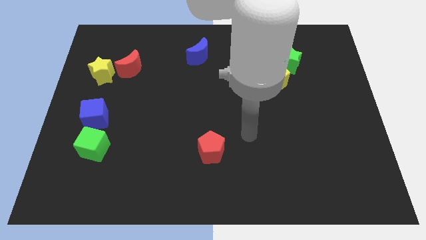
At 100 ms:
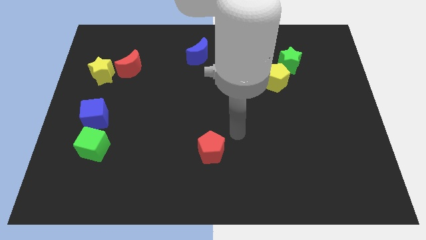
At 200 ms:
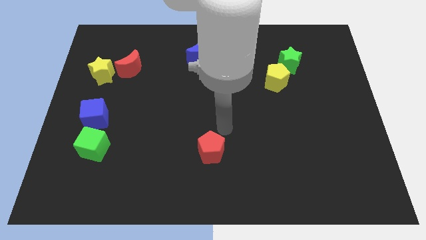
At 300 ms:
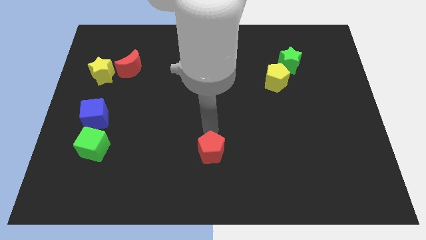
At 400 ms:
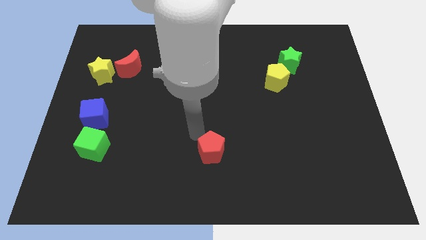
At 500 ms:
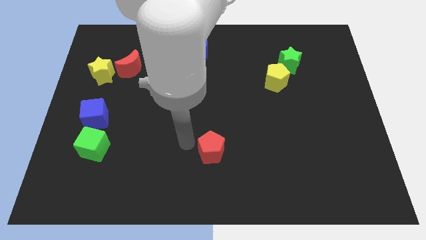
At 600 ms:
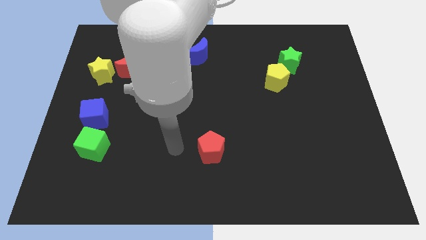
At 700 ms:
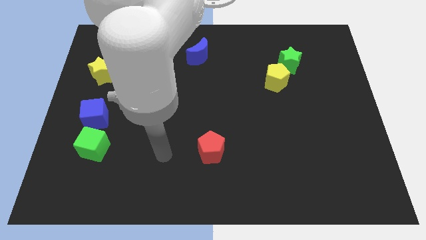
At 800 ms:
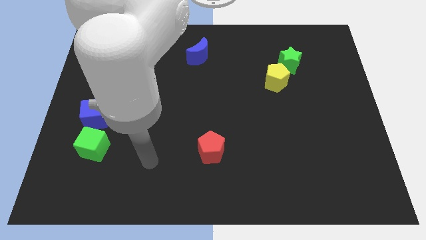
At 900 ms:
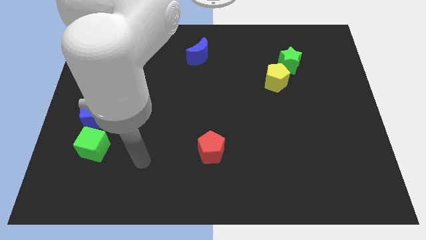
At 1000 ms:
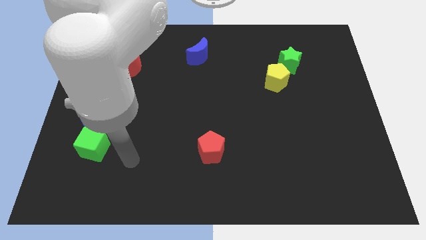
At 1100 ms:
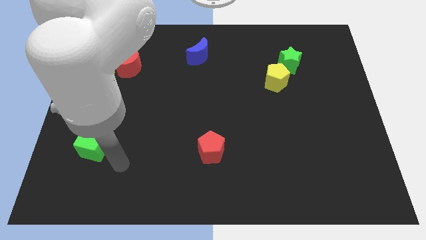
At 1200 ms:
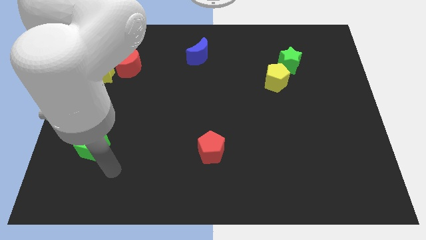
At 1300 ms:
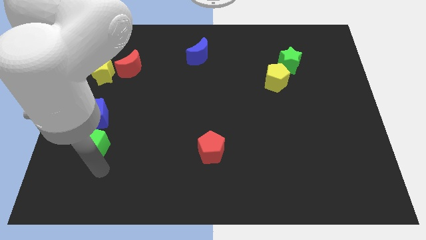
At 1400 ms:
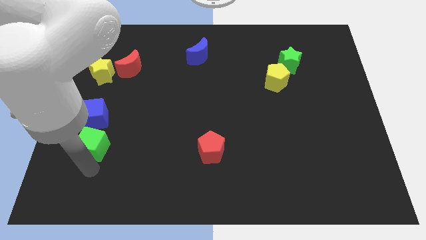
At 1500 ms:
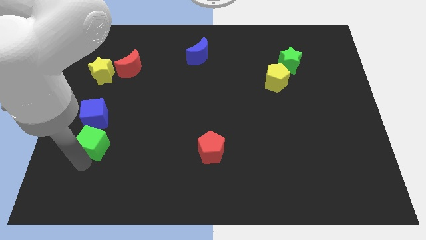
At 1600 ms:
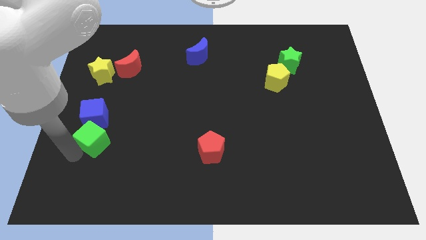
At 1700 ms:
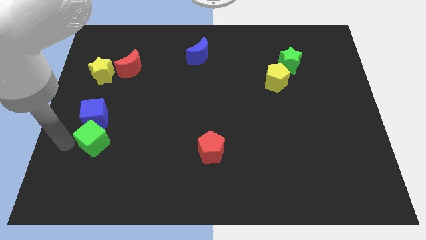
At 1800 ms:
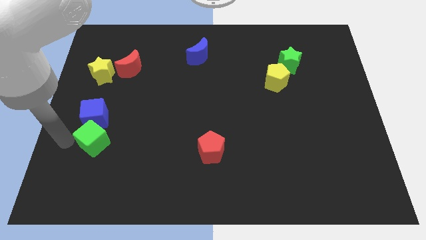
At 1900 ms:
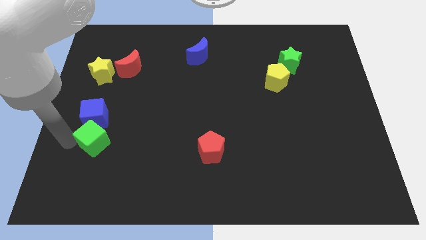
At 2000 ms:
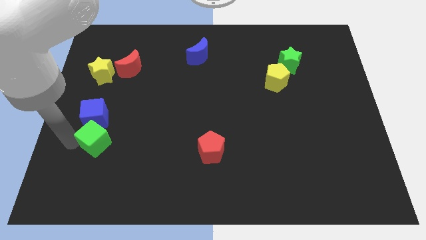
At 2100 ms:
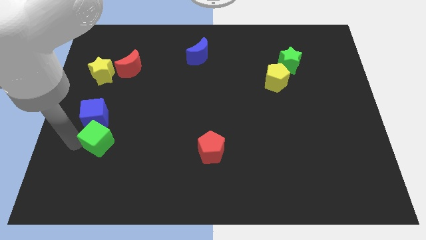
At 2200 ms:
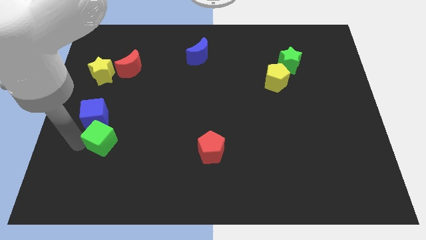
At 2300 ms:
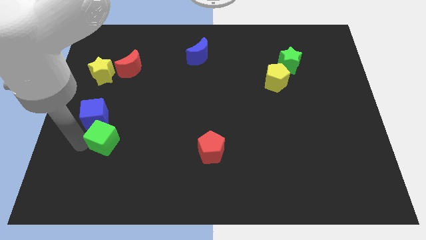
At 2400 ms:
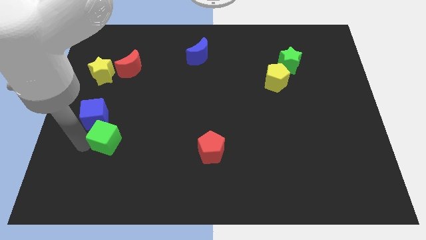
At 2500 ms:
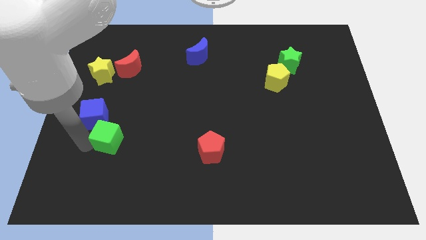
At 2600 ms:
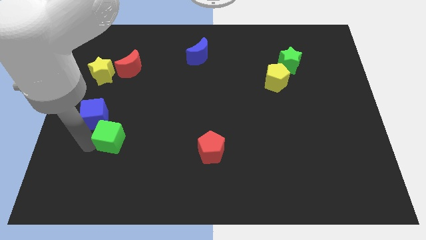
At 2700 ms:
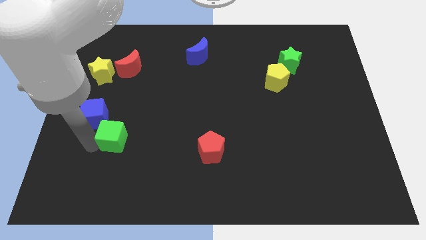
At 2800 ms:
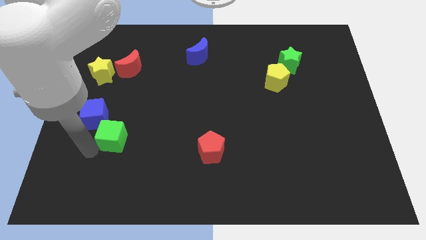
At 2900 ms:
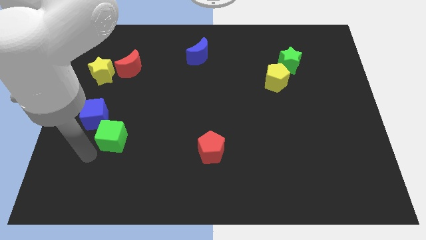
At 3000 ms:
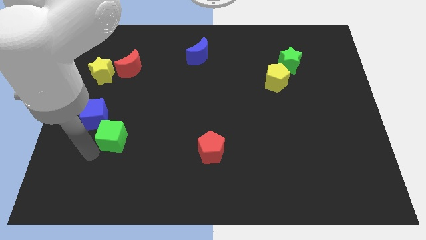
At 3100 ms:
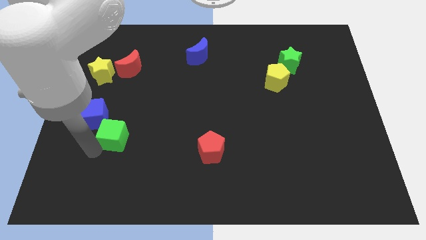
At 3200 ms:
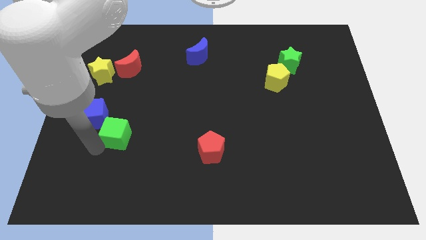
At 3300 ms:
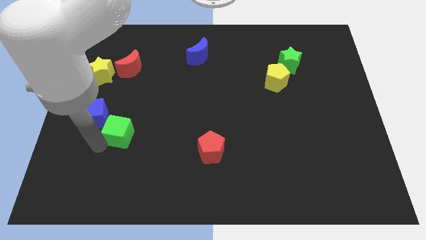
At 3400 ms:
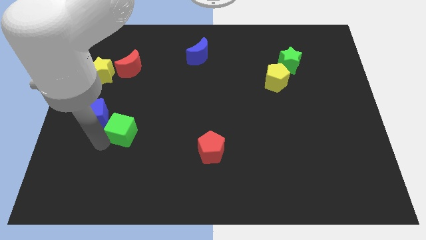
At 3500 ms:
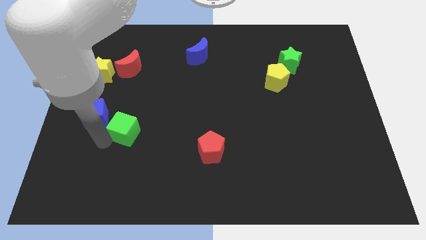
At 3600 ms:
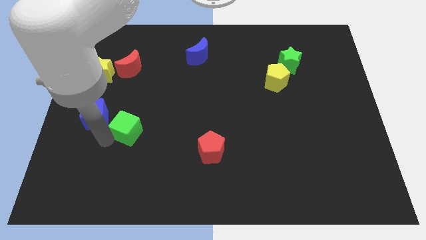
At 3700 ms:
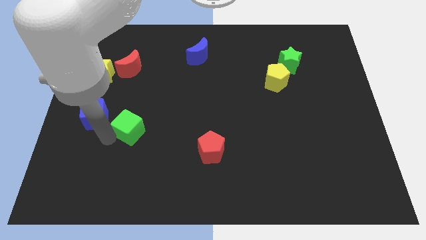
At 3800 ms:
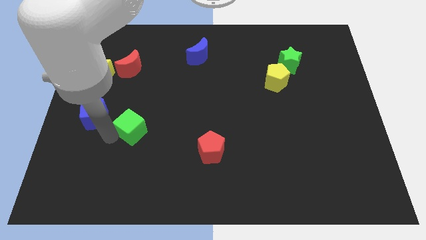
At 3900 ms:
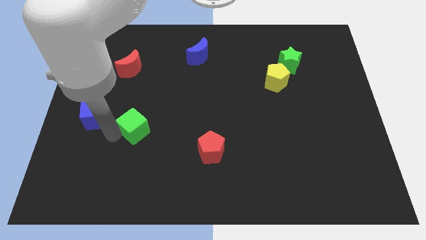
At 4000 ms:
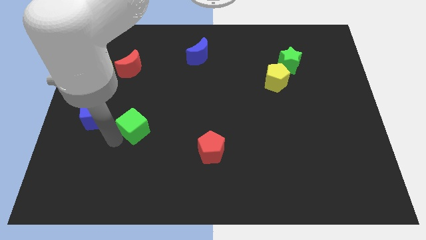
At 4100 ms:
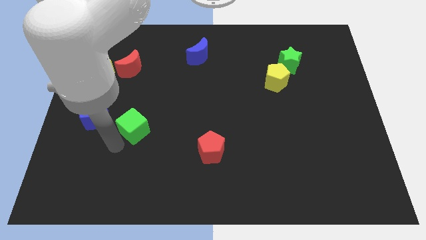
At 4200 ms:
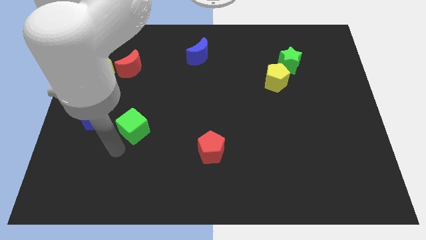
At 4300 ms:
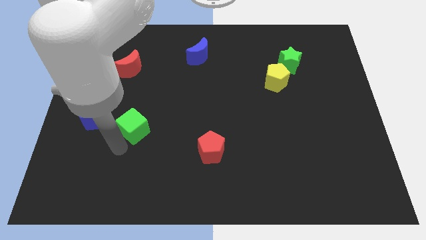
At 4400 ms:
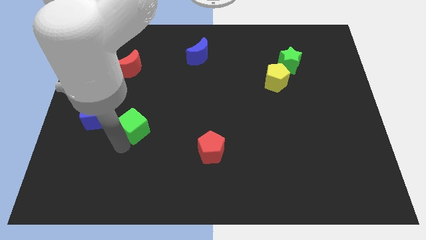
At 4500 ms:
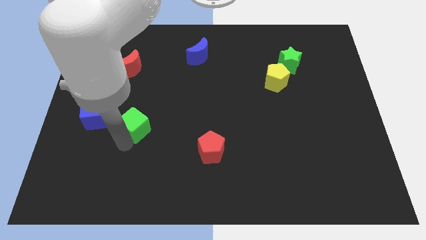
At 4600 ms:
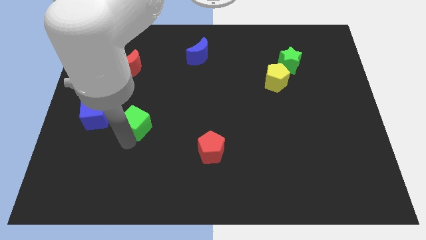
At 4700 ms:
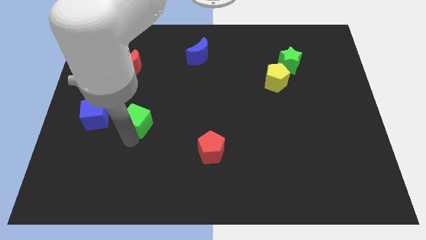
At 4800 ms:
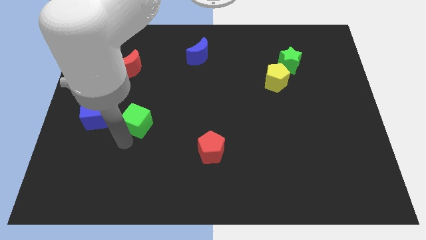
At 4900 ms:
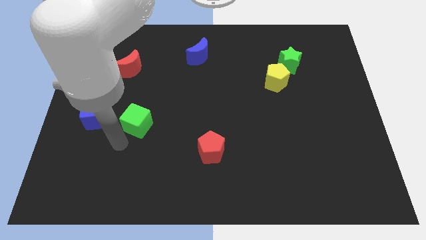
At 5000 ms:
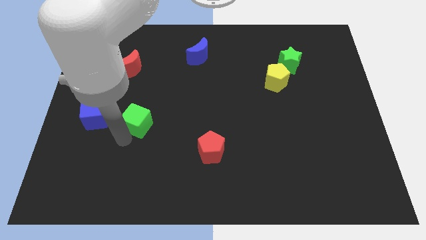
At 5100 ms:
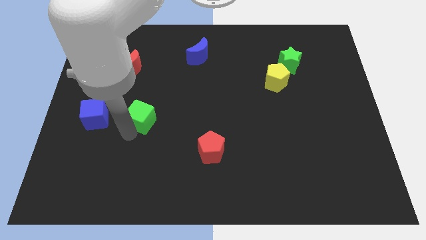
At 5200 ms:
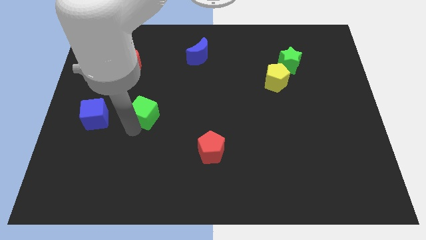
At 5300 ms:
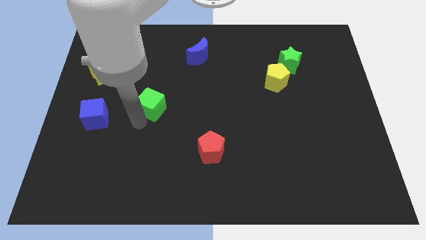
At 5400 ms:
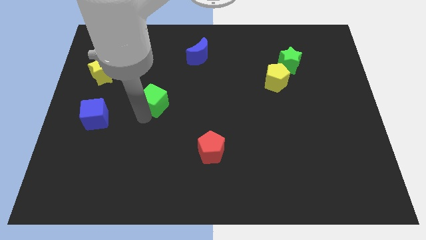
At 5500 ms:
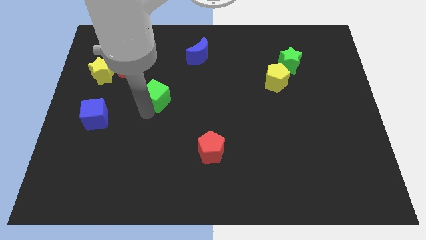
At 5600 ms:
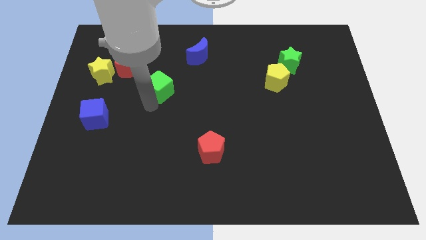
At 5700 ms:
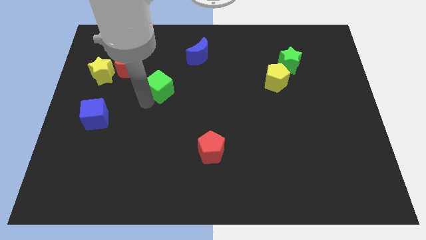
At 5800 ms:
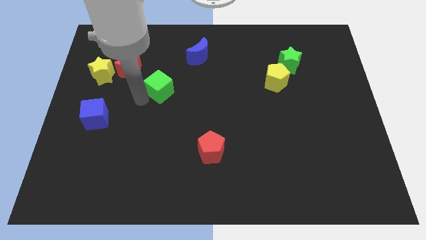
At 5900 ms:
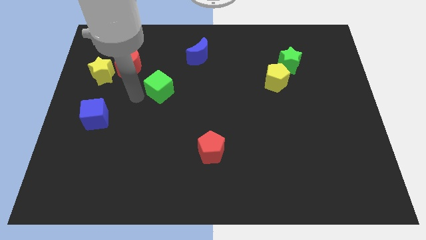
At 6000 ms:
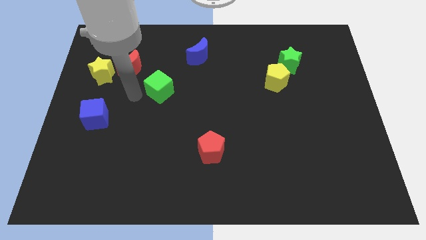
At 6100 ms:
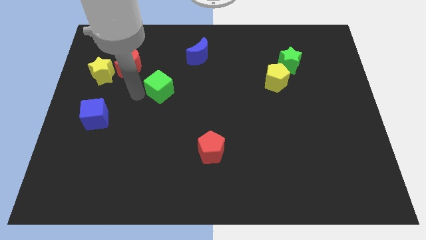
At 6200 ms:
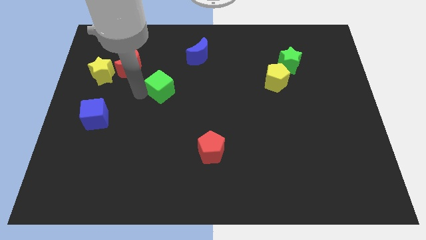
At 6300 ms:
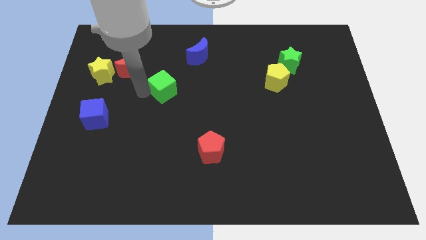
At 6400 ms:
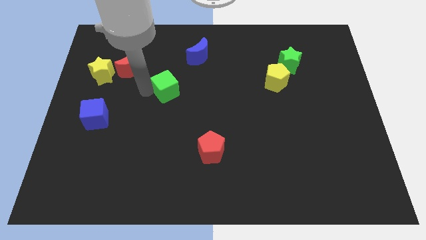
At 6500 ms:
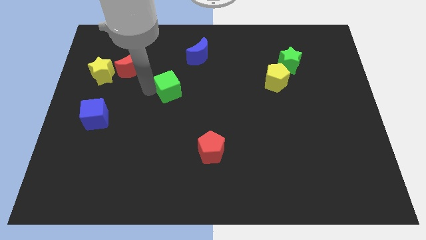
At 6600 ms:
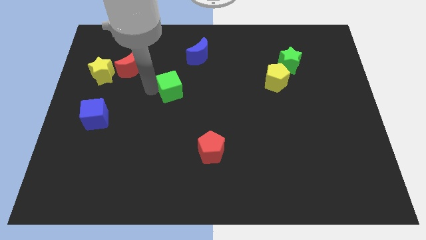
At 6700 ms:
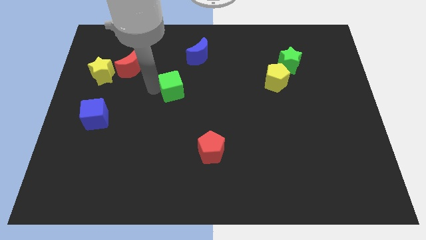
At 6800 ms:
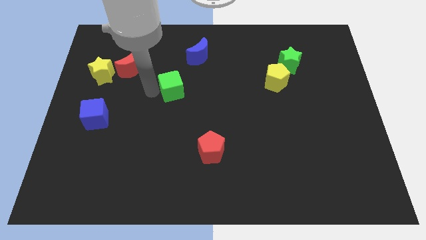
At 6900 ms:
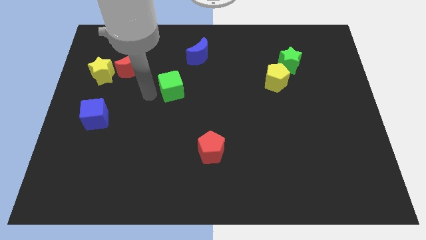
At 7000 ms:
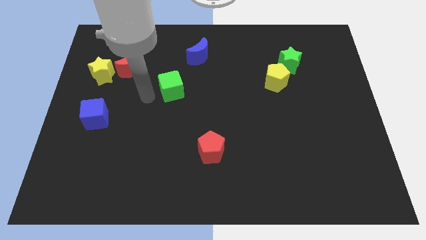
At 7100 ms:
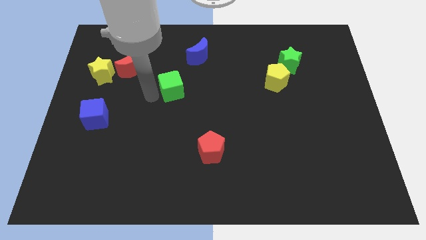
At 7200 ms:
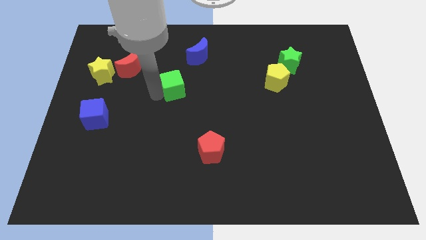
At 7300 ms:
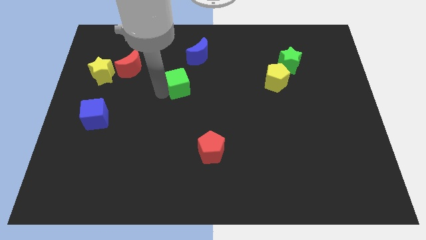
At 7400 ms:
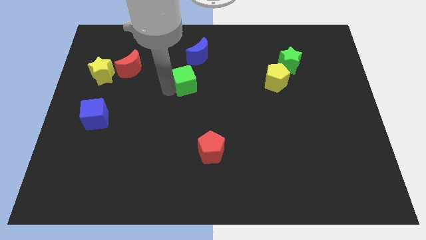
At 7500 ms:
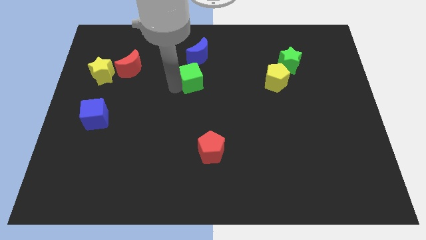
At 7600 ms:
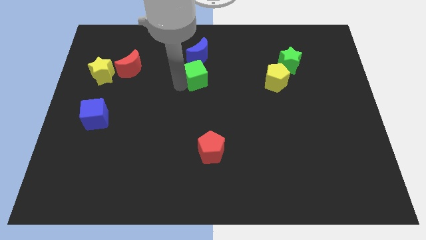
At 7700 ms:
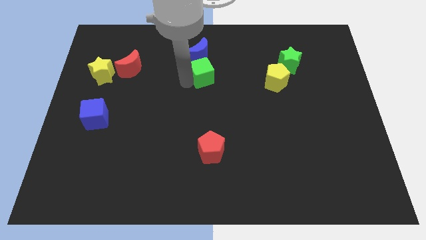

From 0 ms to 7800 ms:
move the green cube to the bottom right side of the blue moon
